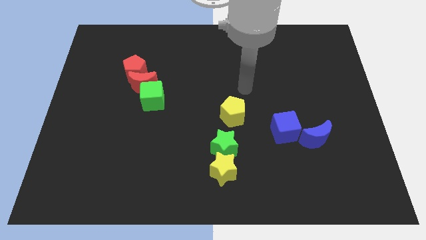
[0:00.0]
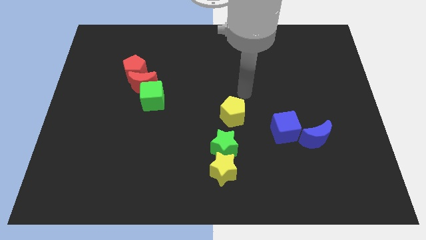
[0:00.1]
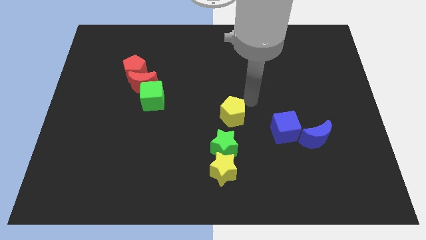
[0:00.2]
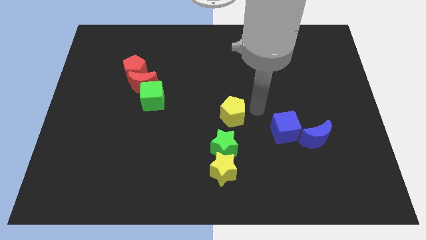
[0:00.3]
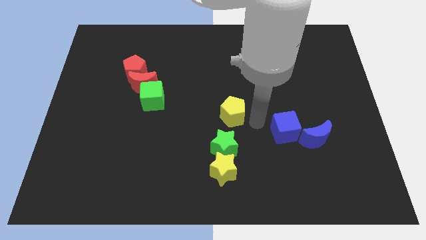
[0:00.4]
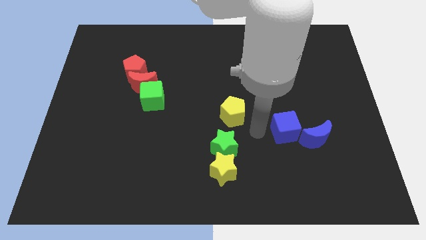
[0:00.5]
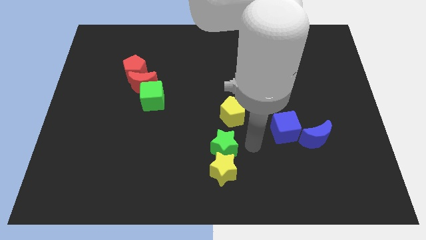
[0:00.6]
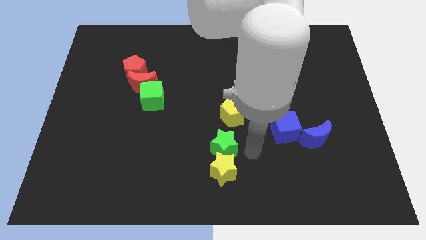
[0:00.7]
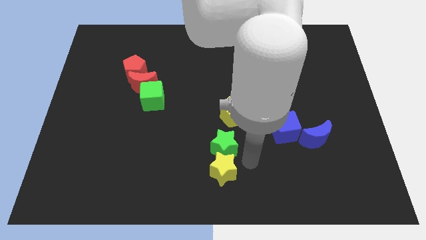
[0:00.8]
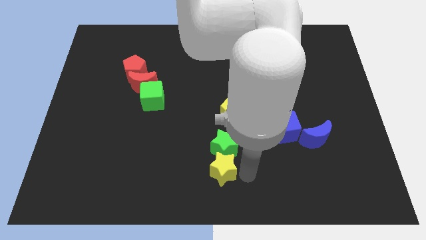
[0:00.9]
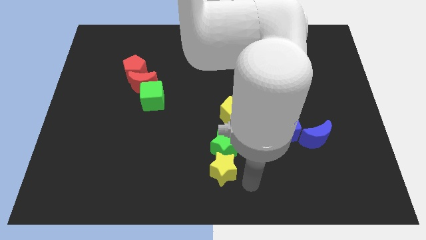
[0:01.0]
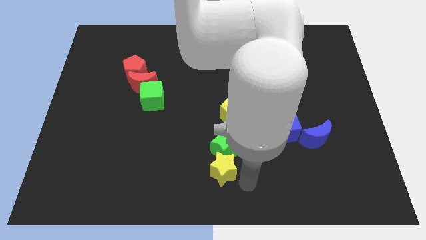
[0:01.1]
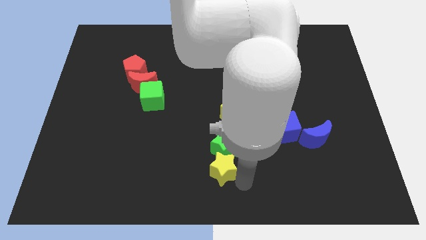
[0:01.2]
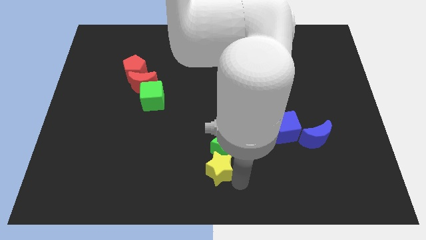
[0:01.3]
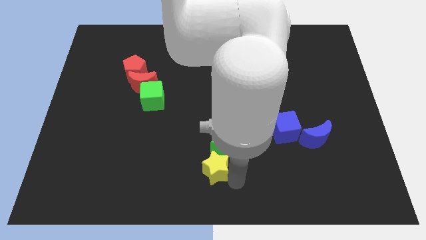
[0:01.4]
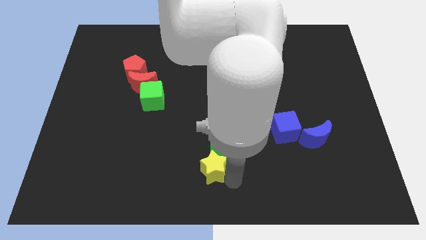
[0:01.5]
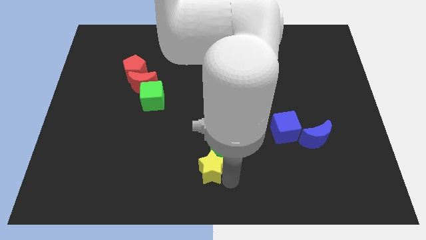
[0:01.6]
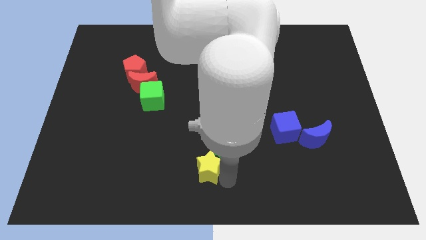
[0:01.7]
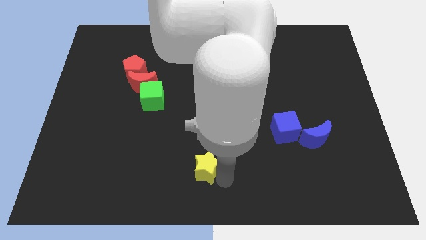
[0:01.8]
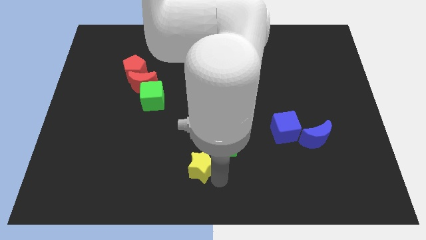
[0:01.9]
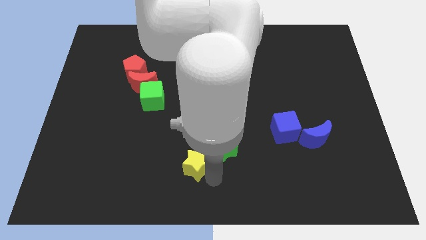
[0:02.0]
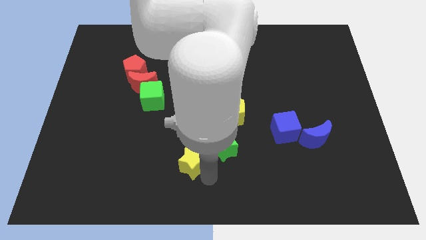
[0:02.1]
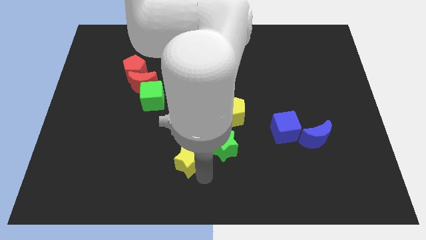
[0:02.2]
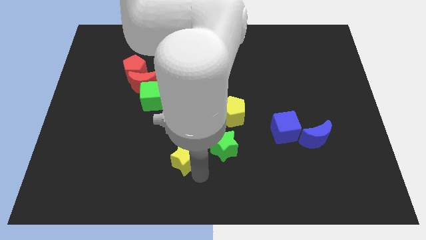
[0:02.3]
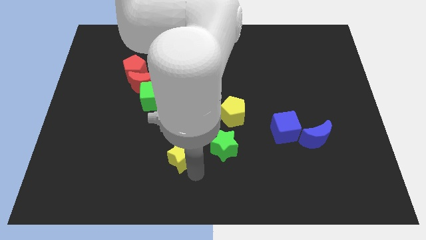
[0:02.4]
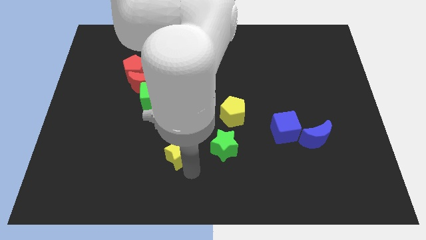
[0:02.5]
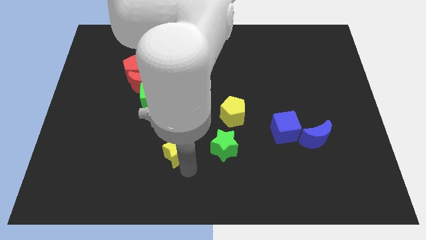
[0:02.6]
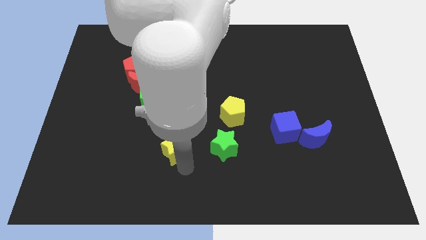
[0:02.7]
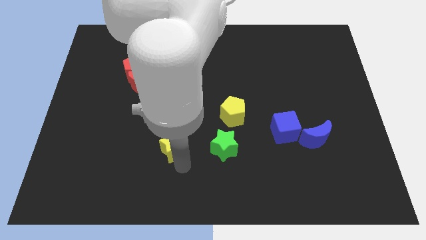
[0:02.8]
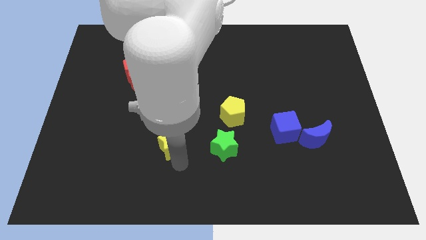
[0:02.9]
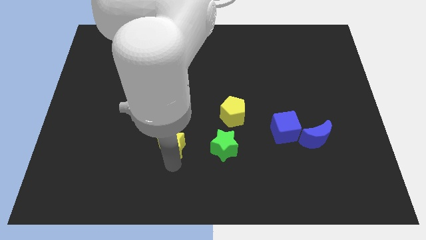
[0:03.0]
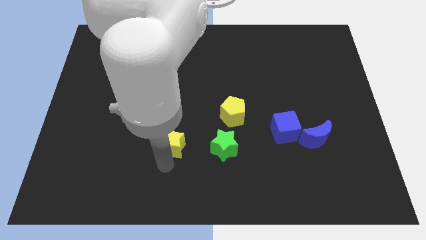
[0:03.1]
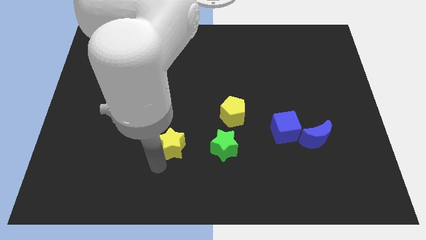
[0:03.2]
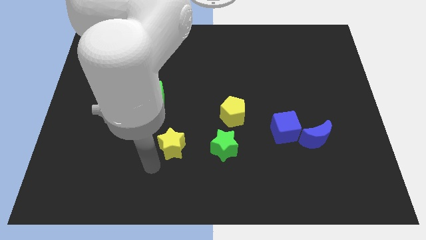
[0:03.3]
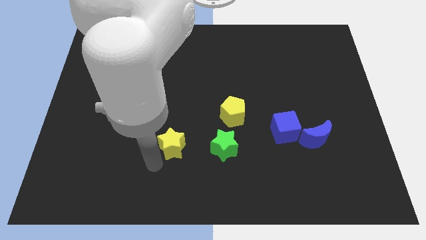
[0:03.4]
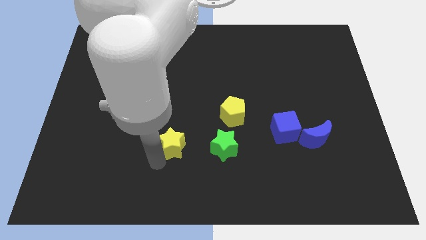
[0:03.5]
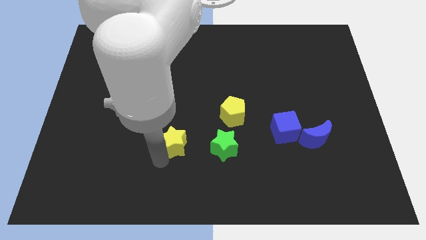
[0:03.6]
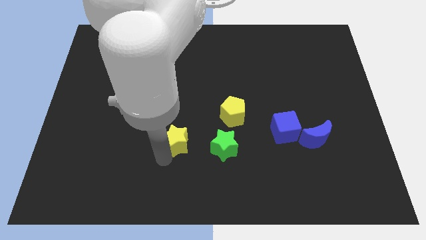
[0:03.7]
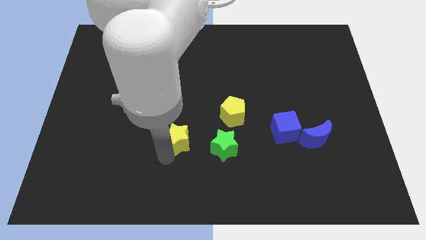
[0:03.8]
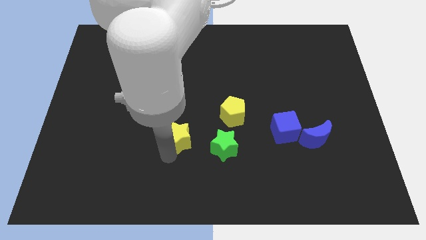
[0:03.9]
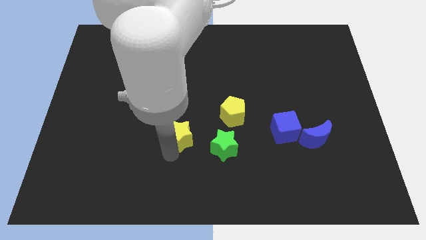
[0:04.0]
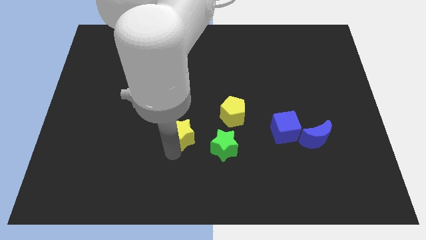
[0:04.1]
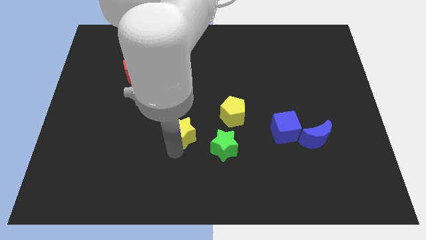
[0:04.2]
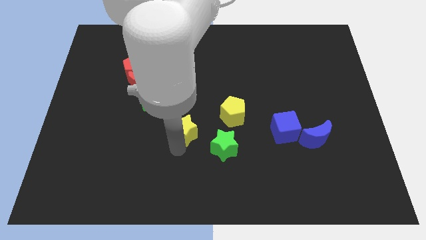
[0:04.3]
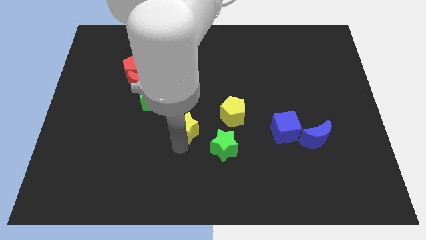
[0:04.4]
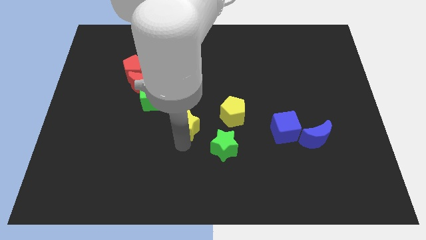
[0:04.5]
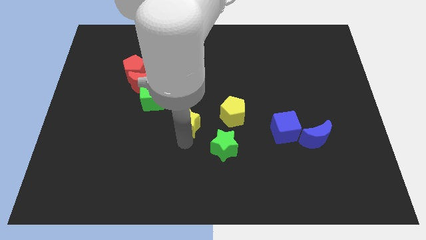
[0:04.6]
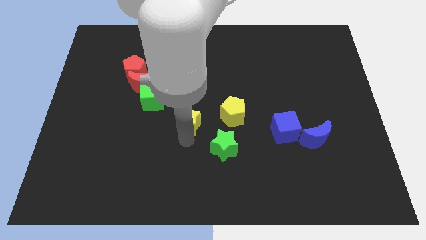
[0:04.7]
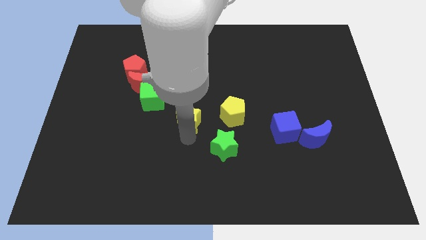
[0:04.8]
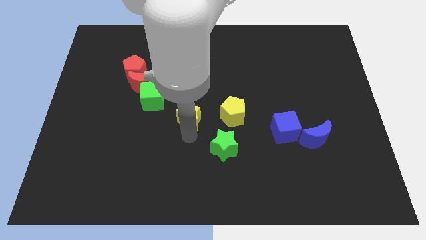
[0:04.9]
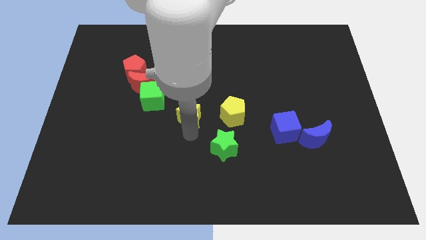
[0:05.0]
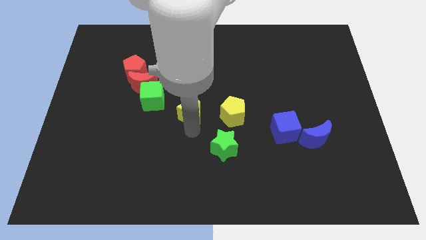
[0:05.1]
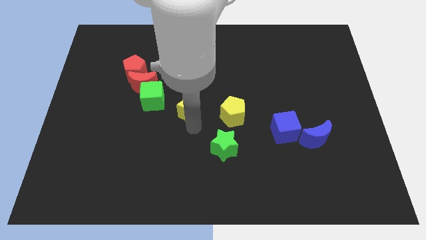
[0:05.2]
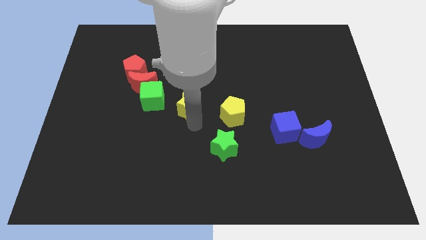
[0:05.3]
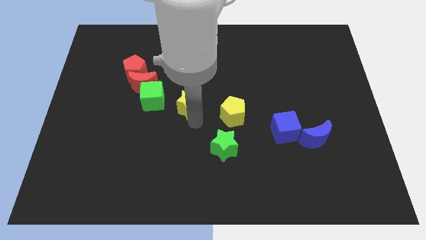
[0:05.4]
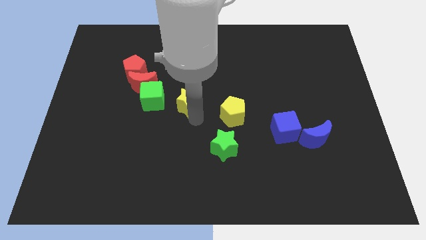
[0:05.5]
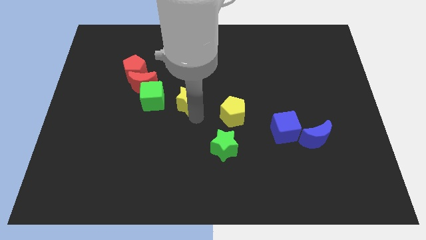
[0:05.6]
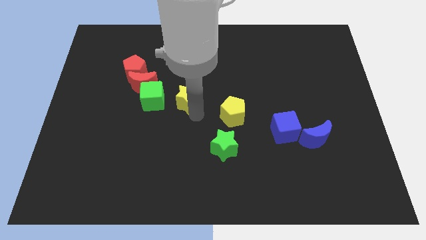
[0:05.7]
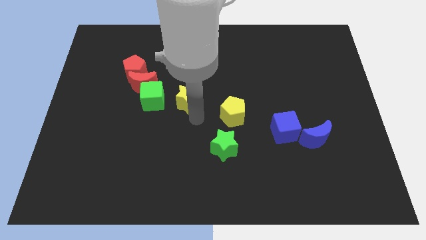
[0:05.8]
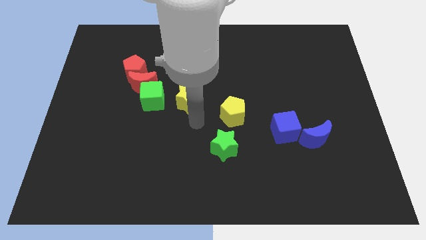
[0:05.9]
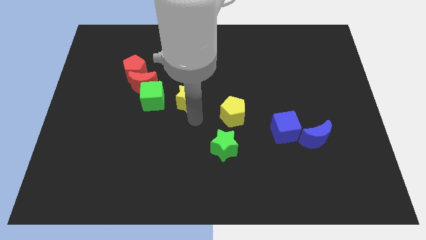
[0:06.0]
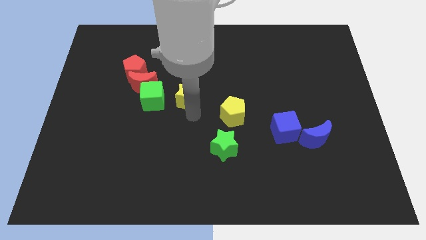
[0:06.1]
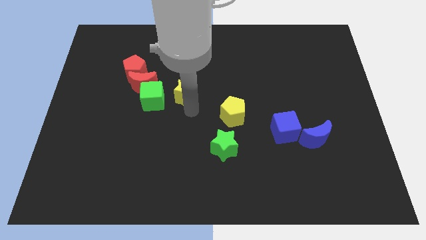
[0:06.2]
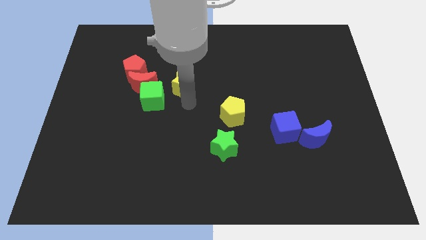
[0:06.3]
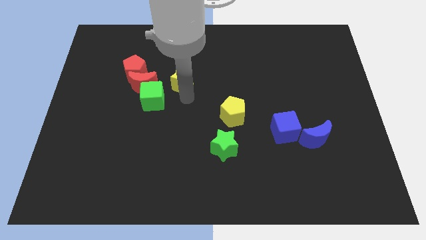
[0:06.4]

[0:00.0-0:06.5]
put the yellow star to the right of the red pentagon
